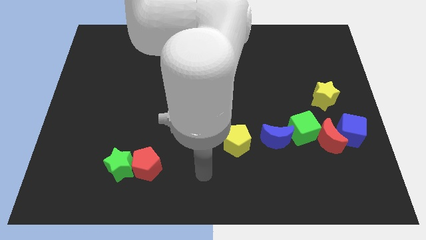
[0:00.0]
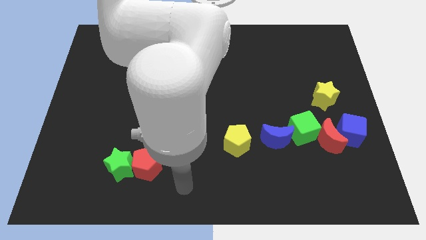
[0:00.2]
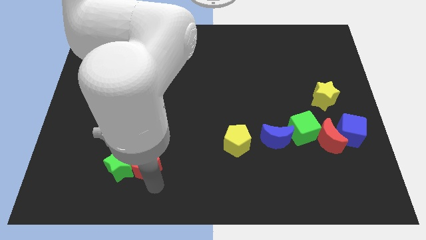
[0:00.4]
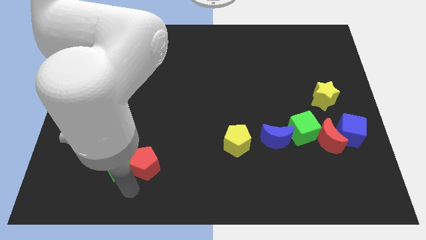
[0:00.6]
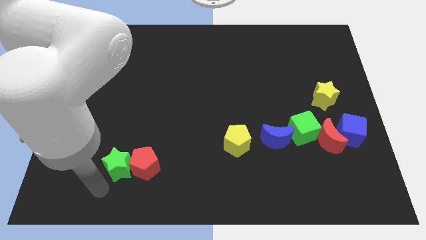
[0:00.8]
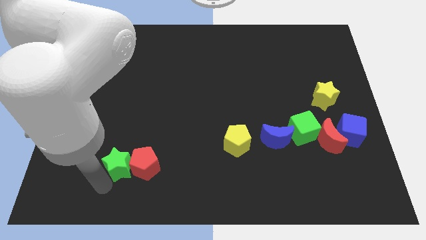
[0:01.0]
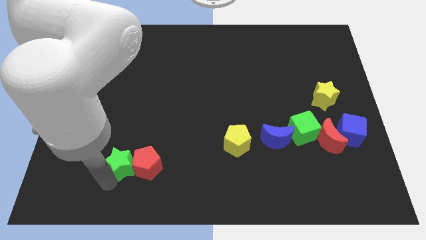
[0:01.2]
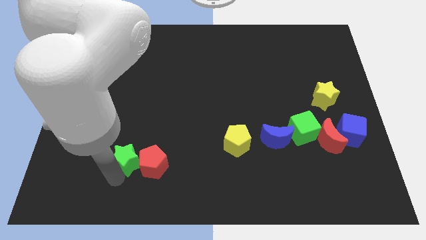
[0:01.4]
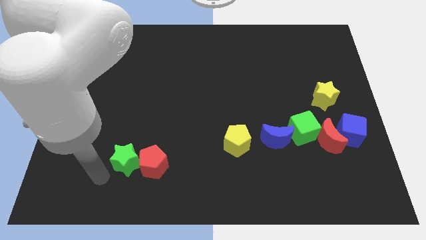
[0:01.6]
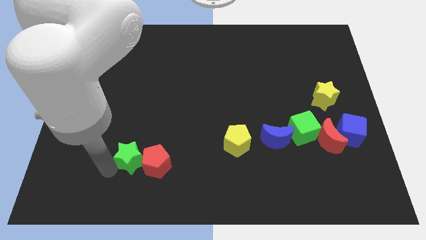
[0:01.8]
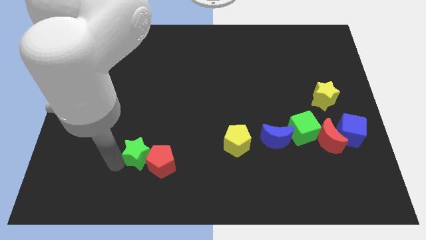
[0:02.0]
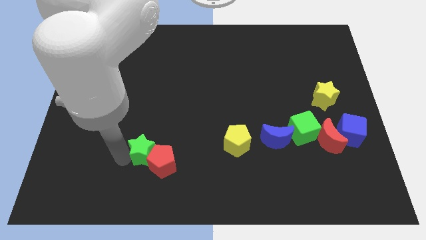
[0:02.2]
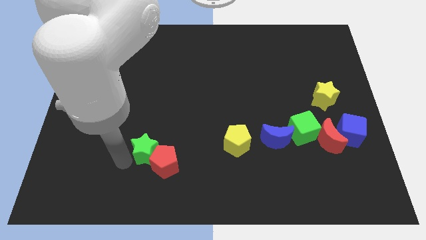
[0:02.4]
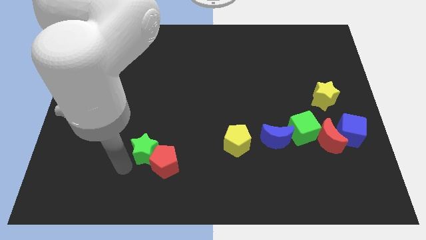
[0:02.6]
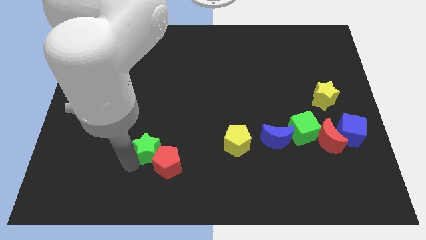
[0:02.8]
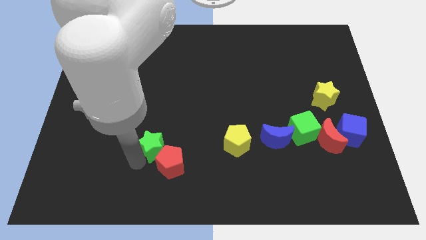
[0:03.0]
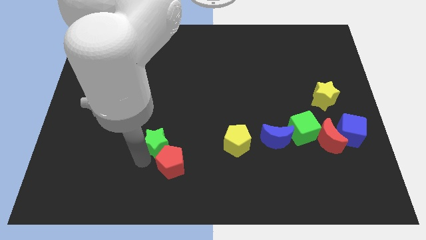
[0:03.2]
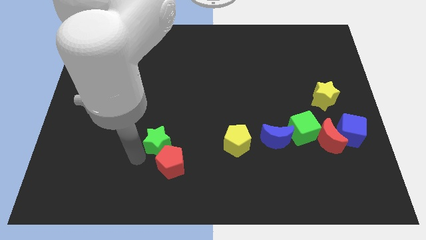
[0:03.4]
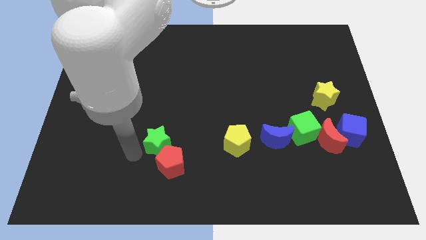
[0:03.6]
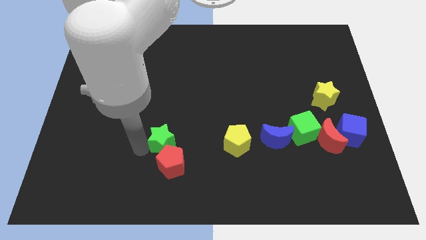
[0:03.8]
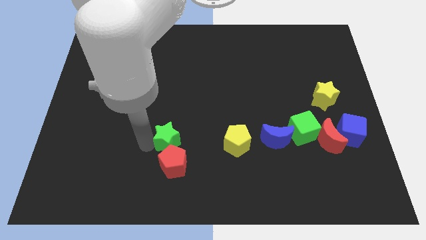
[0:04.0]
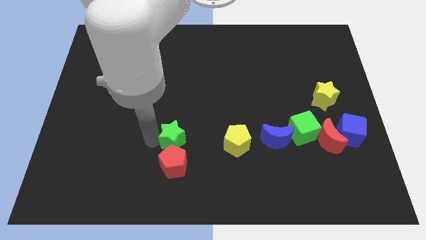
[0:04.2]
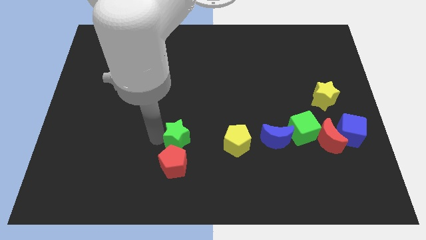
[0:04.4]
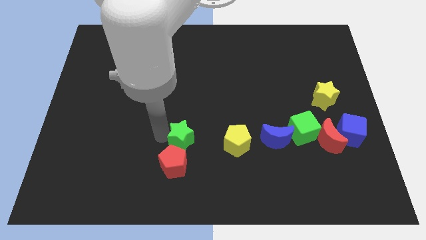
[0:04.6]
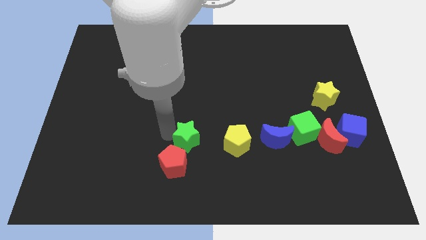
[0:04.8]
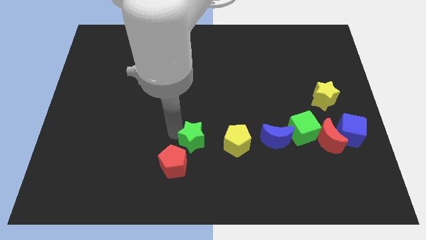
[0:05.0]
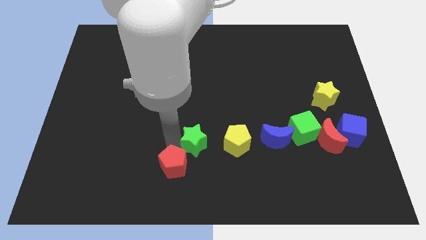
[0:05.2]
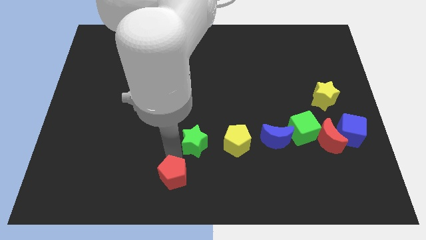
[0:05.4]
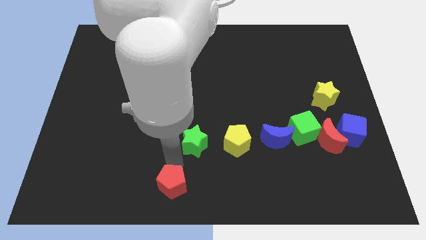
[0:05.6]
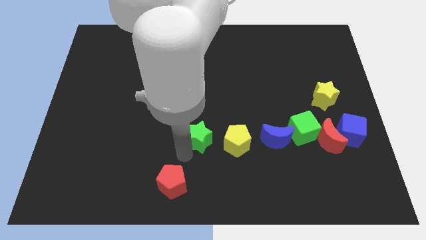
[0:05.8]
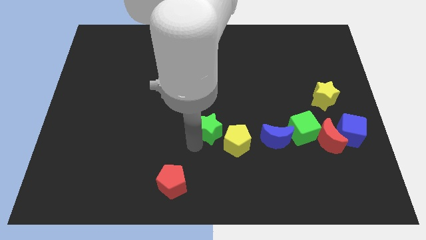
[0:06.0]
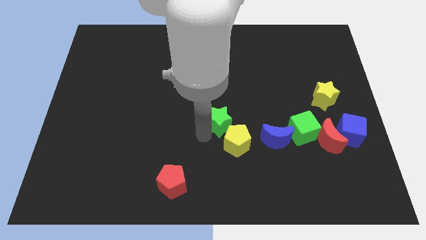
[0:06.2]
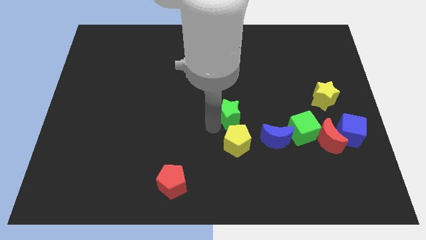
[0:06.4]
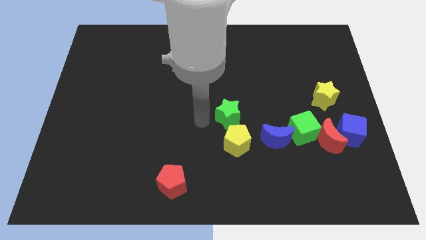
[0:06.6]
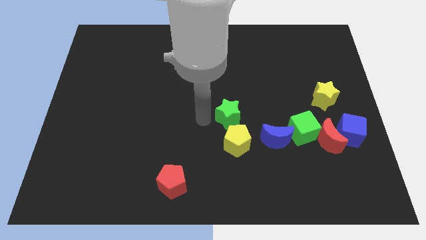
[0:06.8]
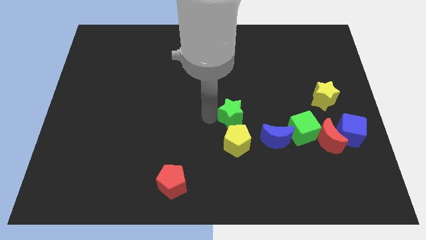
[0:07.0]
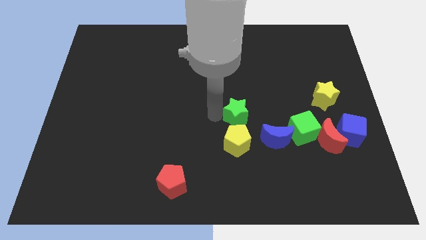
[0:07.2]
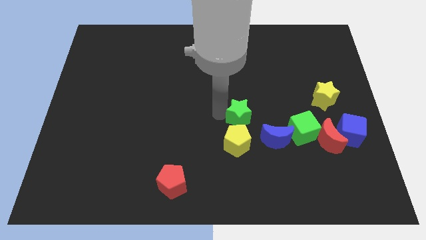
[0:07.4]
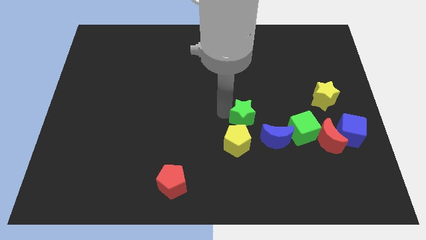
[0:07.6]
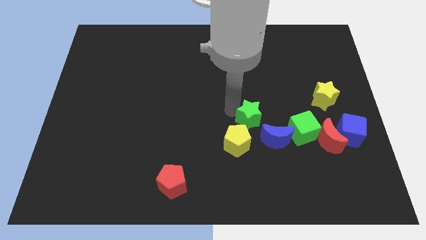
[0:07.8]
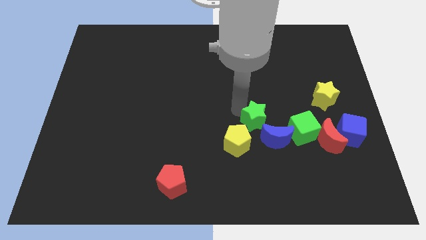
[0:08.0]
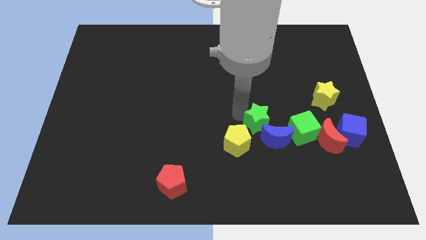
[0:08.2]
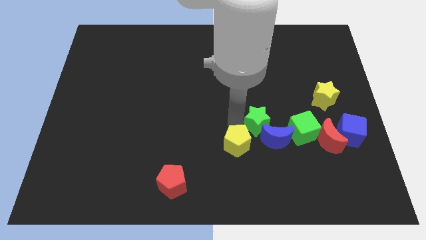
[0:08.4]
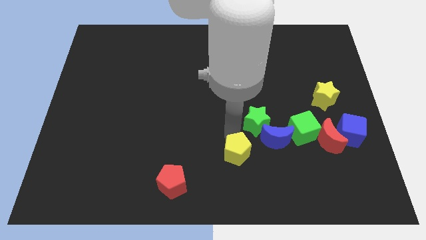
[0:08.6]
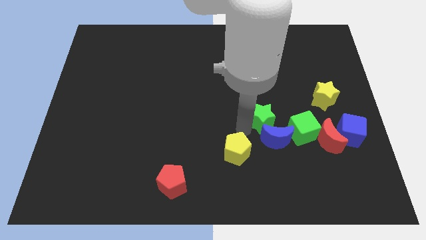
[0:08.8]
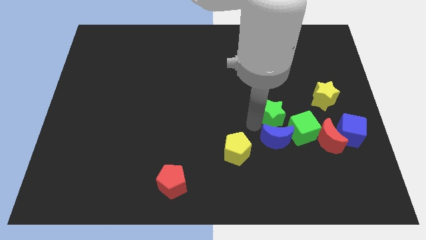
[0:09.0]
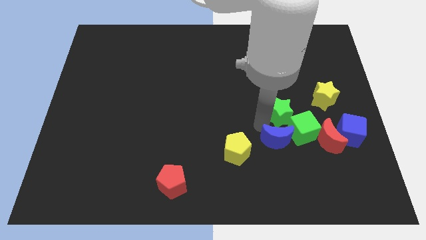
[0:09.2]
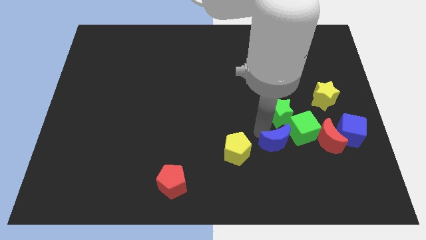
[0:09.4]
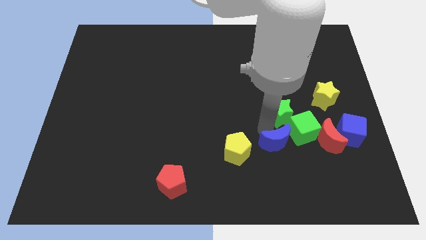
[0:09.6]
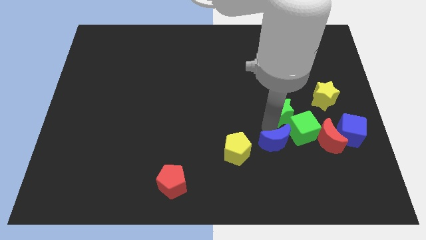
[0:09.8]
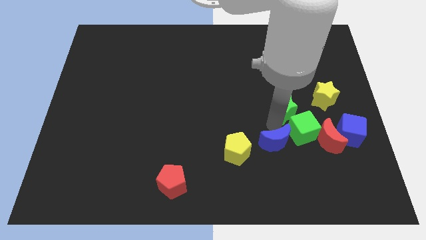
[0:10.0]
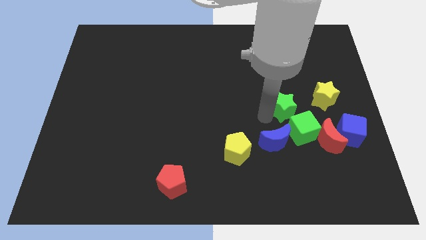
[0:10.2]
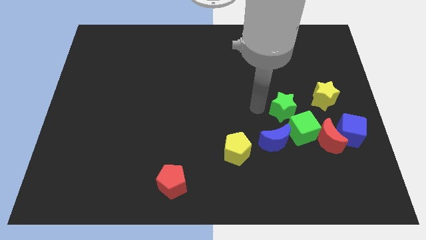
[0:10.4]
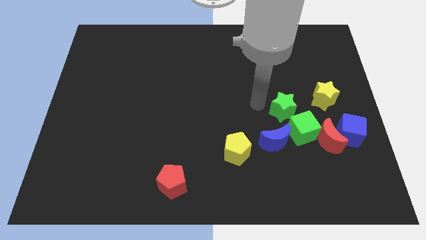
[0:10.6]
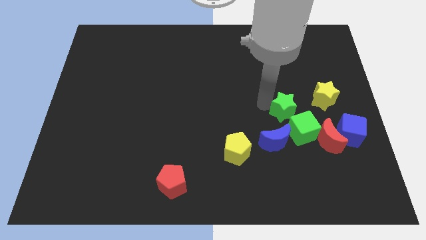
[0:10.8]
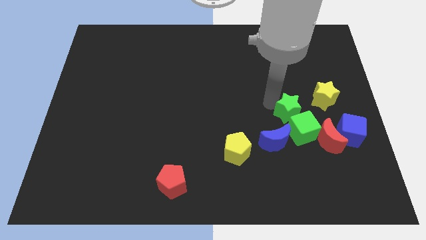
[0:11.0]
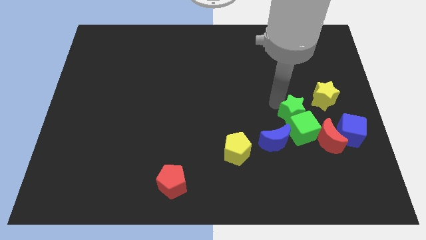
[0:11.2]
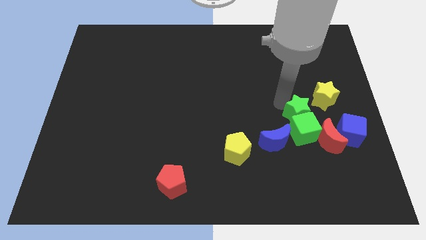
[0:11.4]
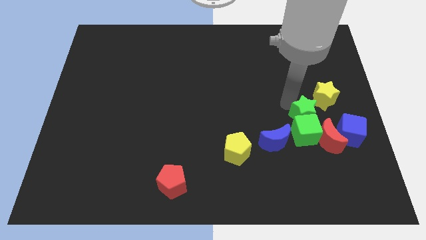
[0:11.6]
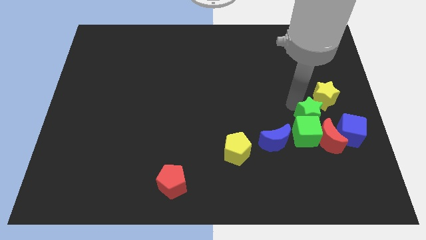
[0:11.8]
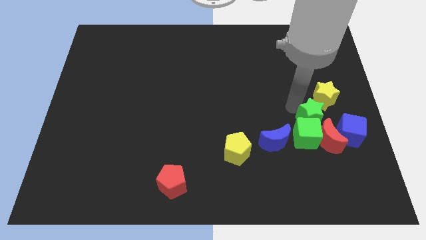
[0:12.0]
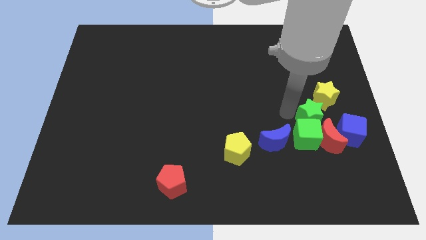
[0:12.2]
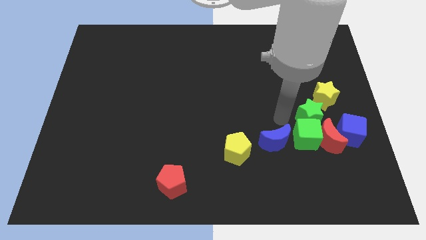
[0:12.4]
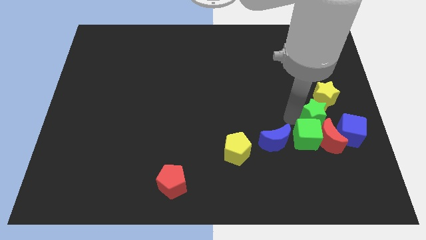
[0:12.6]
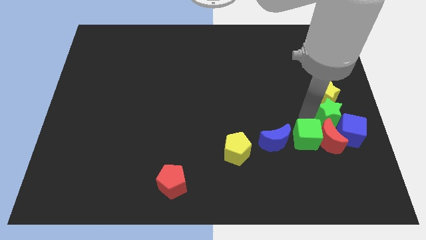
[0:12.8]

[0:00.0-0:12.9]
move the green star to the right side

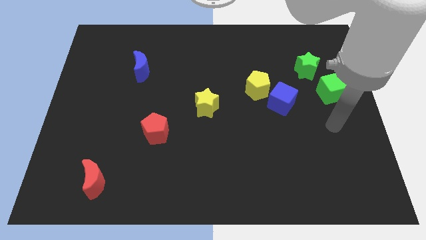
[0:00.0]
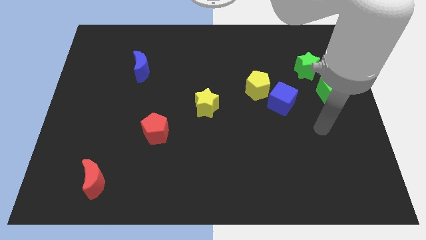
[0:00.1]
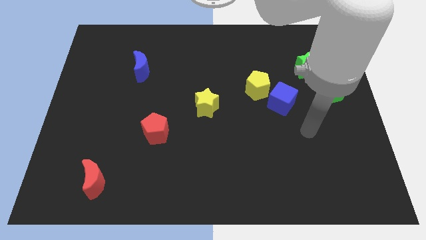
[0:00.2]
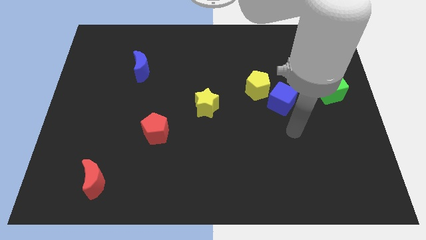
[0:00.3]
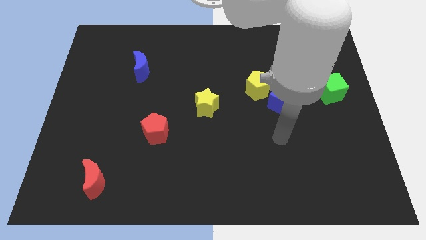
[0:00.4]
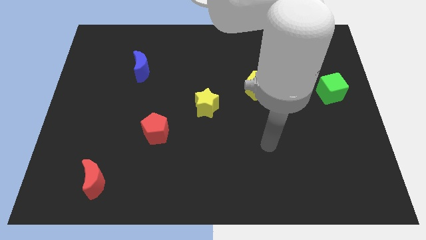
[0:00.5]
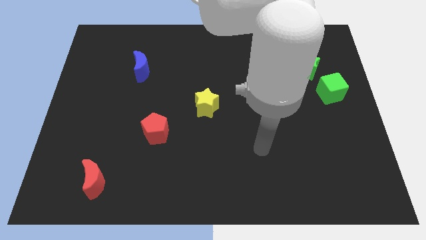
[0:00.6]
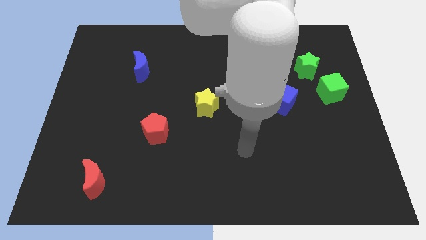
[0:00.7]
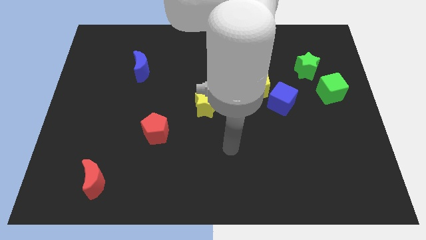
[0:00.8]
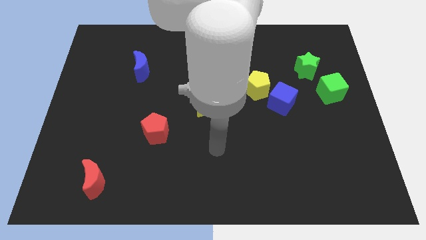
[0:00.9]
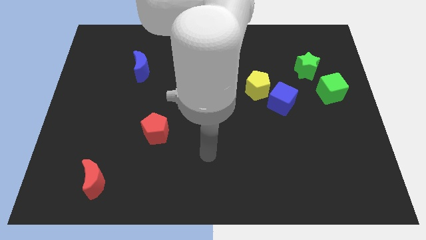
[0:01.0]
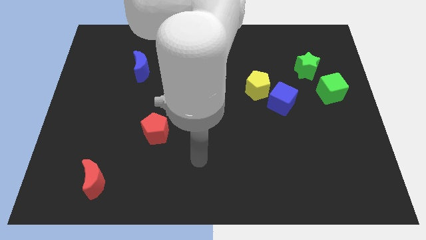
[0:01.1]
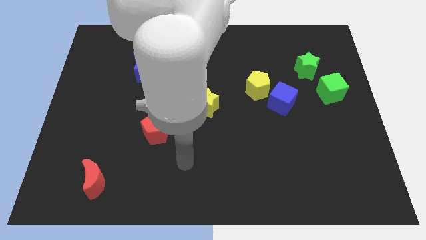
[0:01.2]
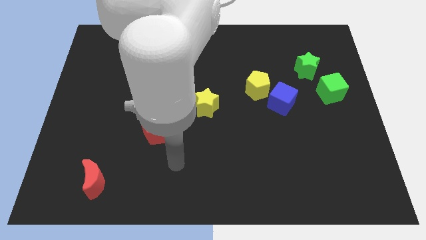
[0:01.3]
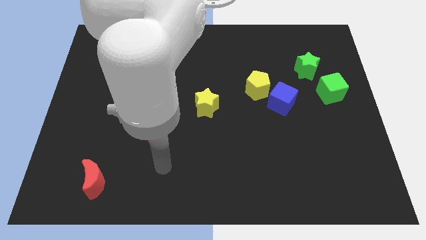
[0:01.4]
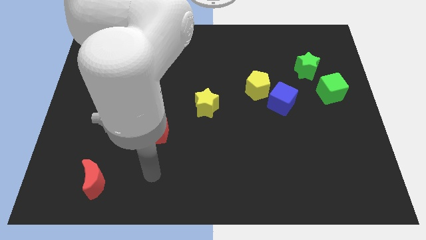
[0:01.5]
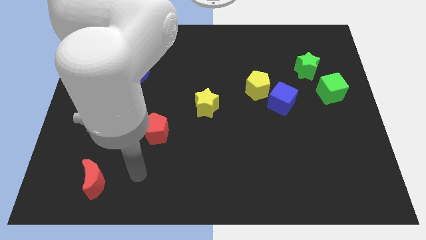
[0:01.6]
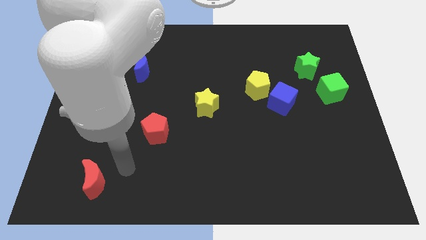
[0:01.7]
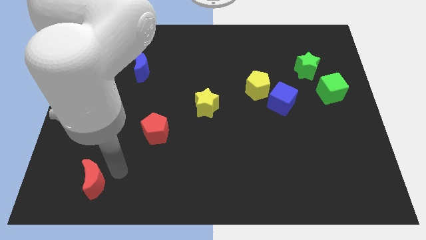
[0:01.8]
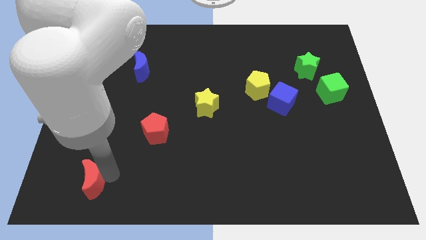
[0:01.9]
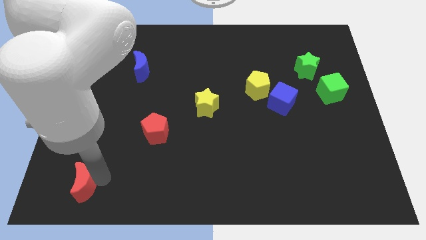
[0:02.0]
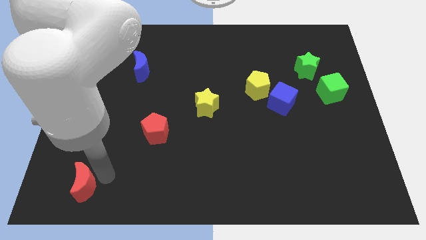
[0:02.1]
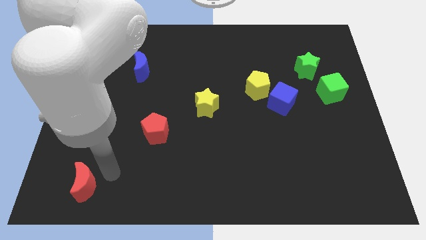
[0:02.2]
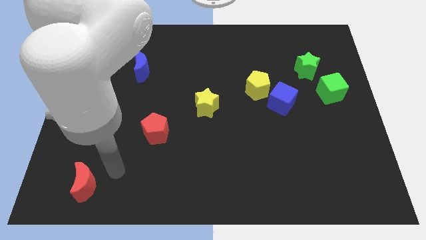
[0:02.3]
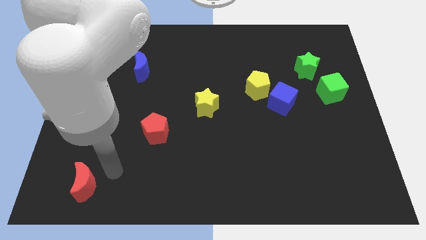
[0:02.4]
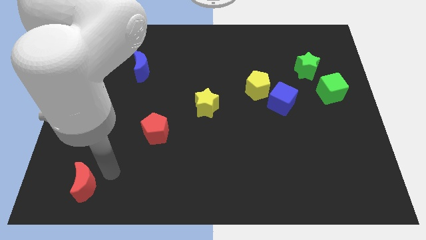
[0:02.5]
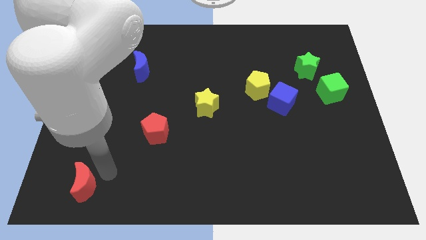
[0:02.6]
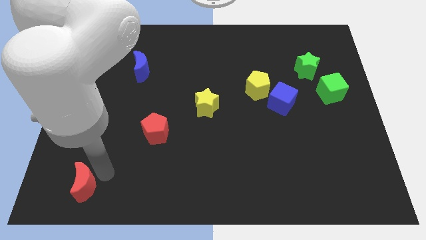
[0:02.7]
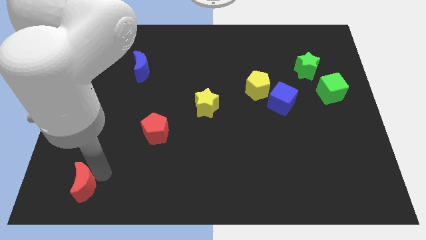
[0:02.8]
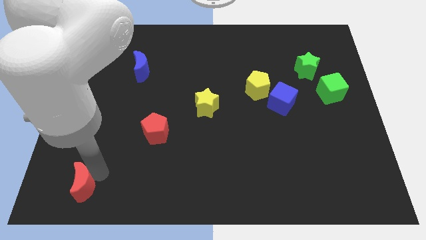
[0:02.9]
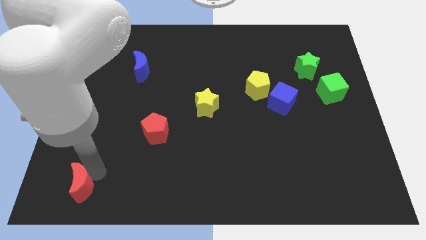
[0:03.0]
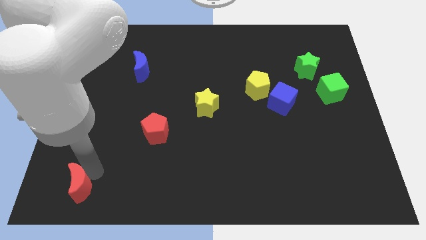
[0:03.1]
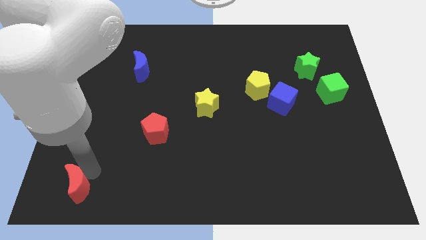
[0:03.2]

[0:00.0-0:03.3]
push the red moon to the bottom left corner
